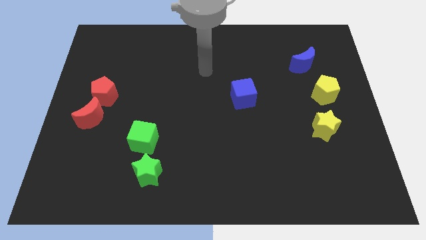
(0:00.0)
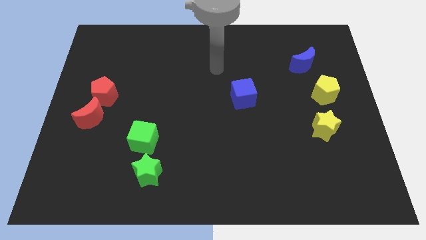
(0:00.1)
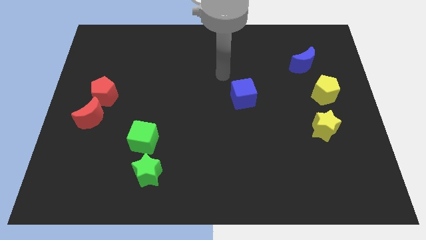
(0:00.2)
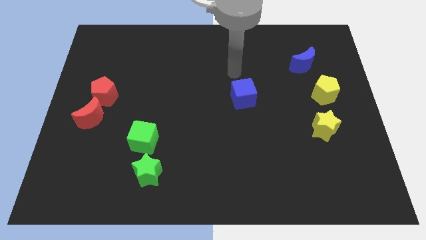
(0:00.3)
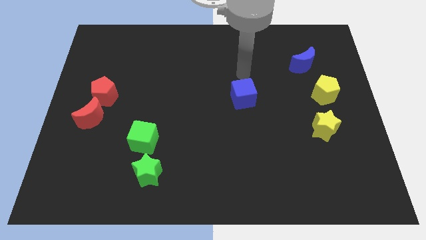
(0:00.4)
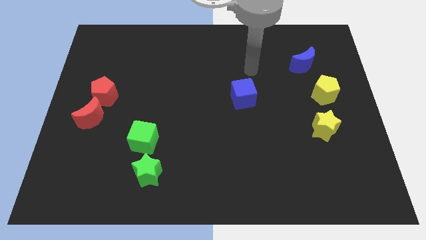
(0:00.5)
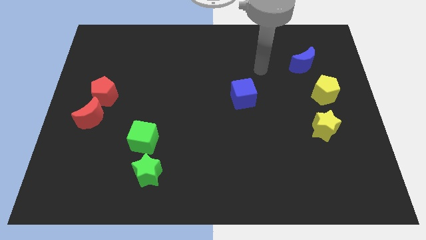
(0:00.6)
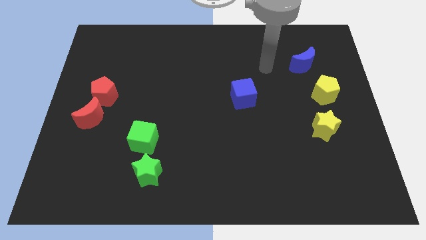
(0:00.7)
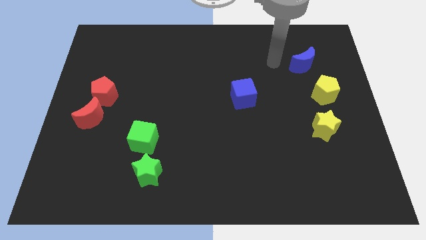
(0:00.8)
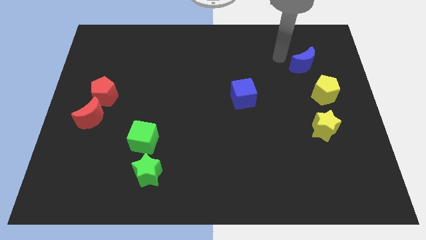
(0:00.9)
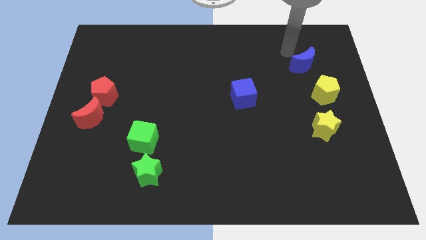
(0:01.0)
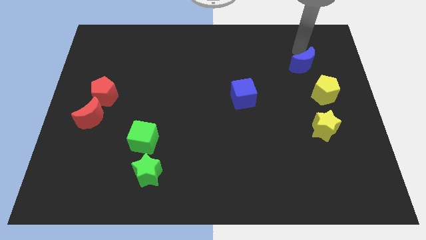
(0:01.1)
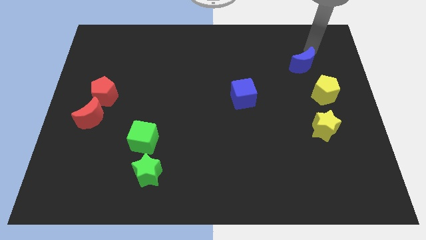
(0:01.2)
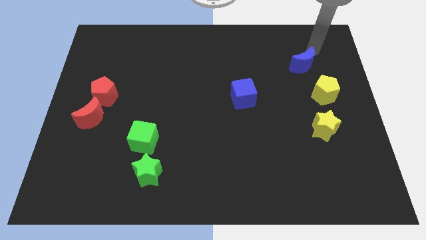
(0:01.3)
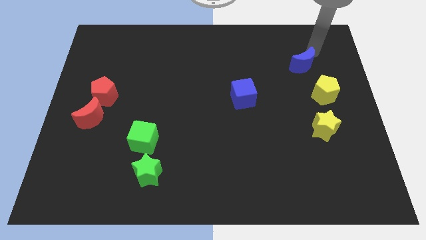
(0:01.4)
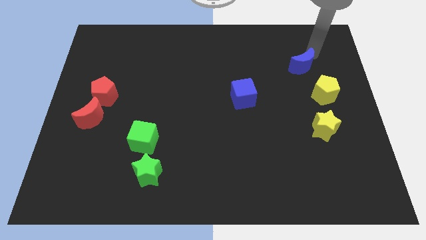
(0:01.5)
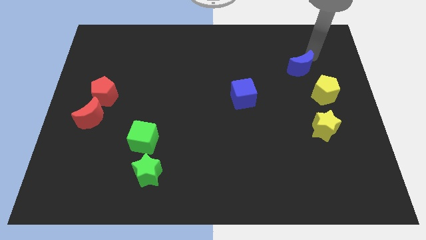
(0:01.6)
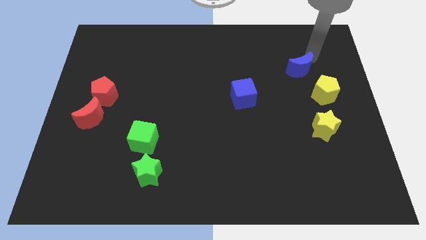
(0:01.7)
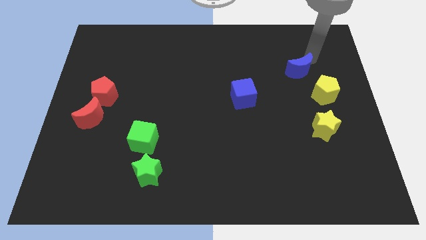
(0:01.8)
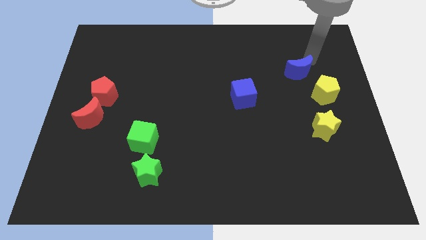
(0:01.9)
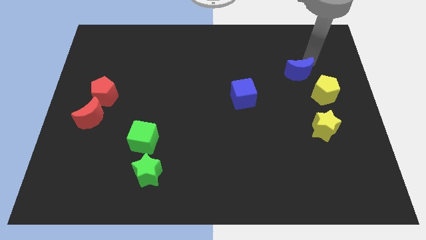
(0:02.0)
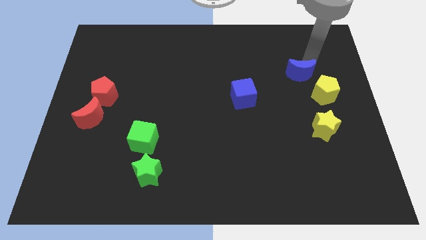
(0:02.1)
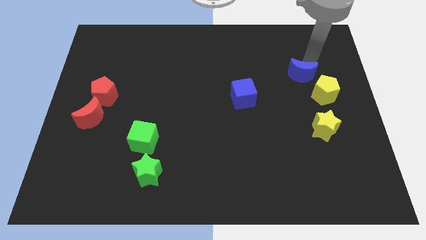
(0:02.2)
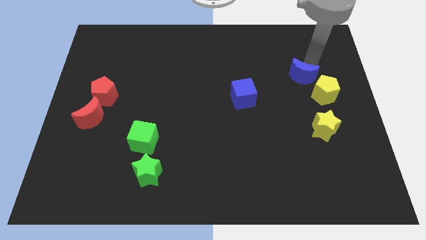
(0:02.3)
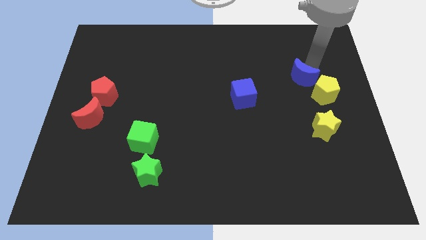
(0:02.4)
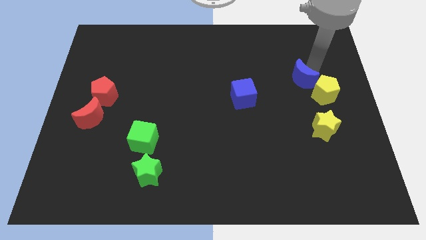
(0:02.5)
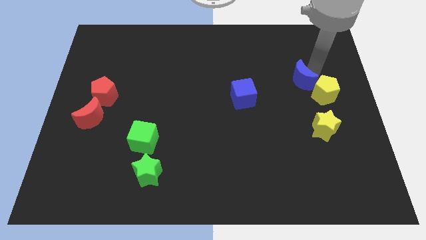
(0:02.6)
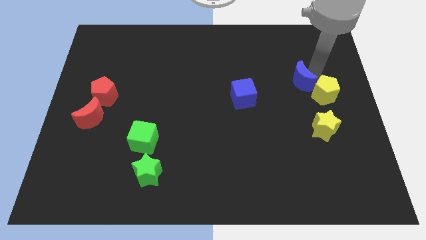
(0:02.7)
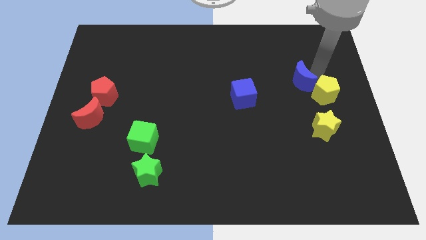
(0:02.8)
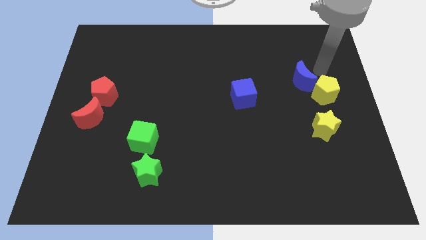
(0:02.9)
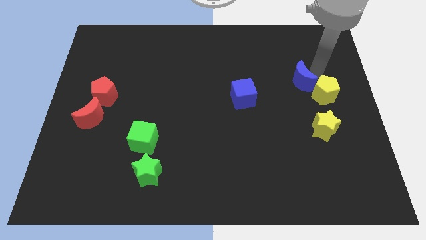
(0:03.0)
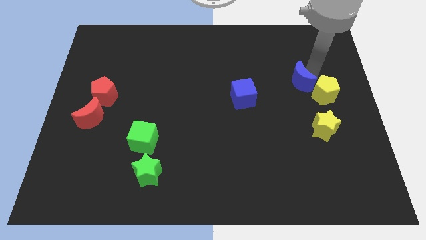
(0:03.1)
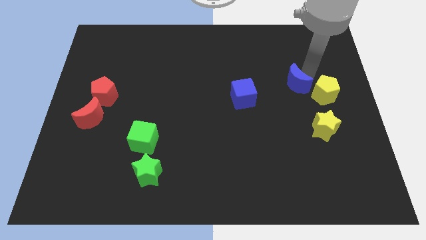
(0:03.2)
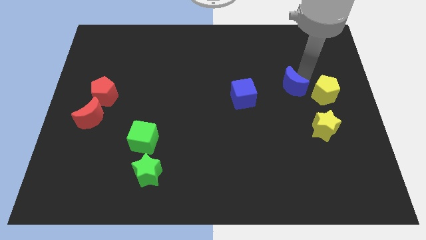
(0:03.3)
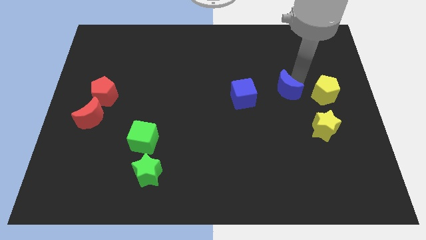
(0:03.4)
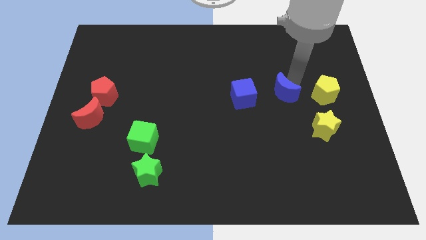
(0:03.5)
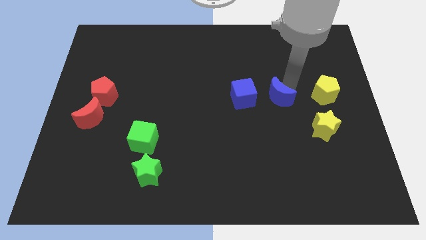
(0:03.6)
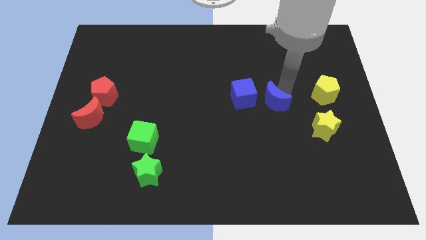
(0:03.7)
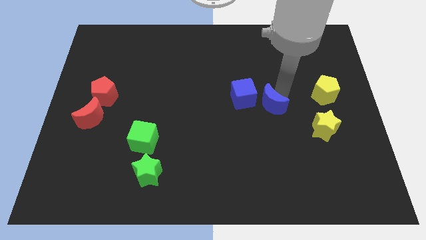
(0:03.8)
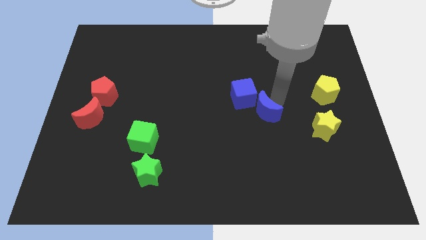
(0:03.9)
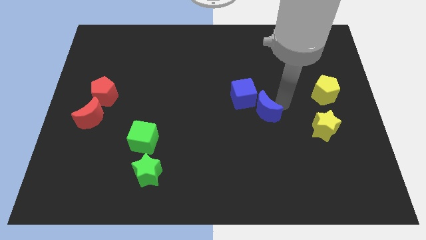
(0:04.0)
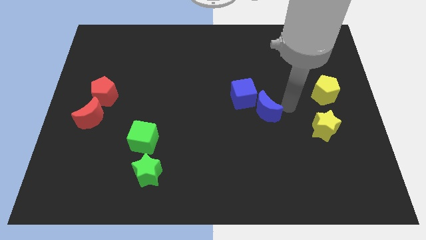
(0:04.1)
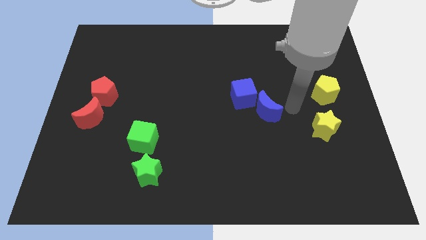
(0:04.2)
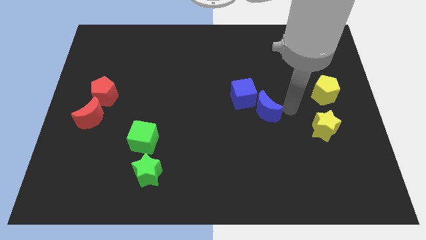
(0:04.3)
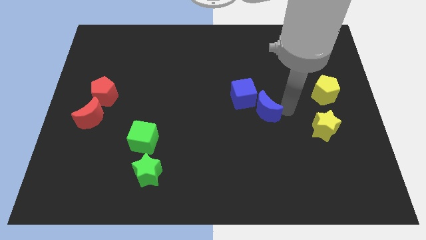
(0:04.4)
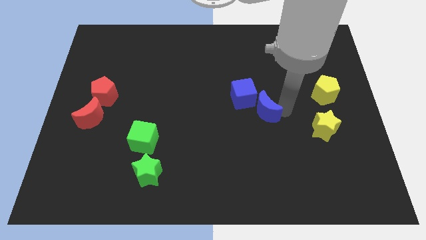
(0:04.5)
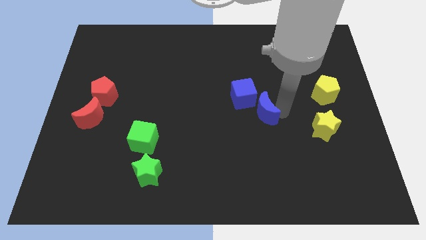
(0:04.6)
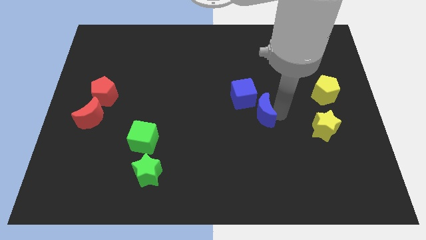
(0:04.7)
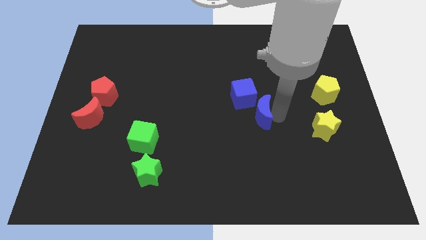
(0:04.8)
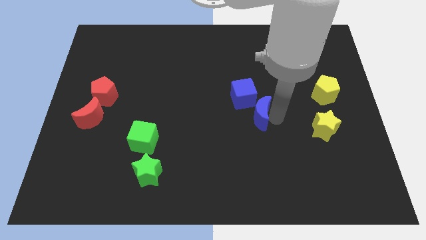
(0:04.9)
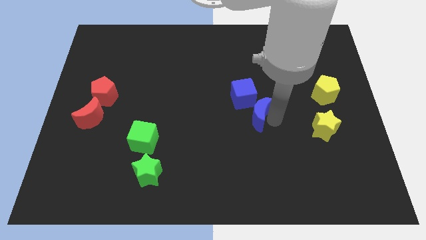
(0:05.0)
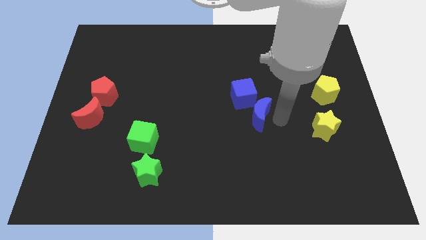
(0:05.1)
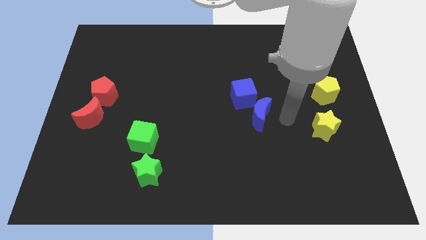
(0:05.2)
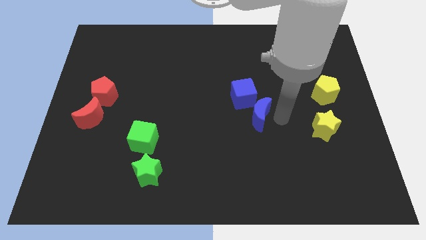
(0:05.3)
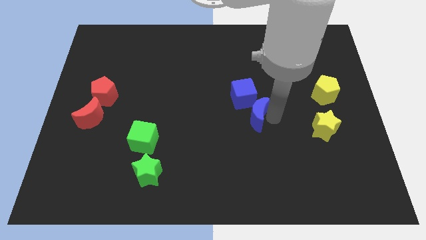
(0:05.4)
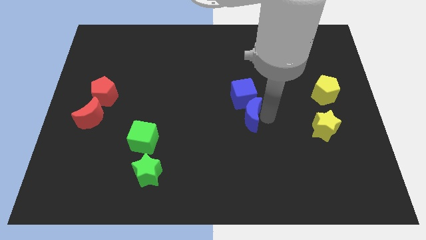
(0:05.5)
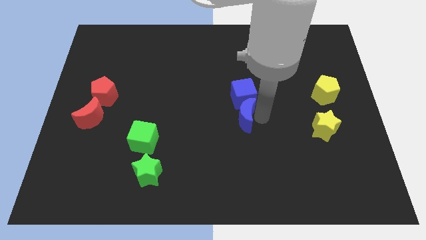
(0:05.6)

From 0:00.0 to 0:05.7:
slide the blue moon to the bottom left side of the blue cube
